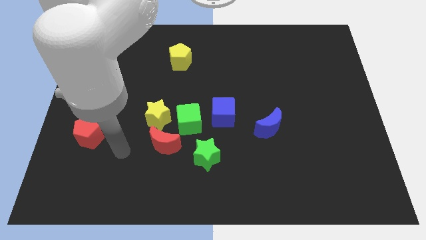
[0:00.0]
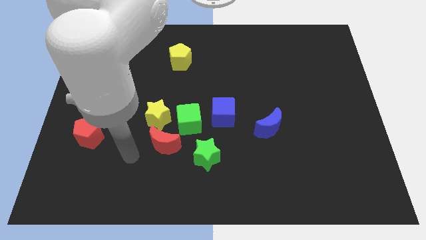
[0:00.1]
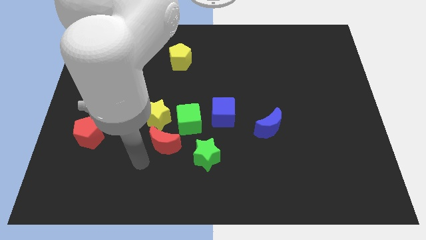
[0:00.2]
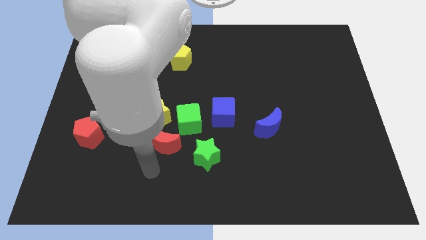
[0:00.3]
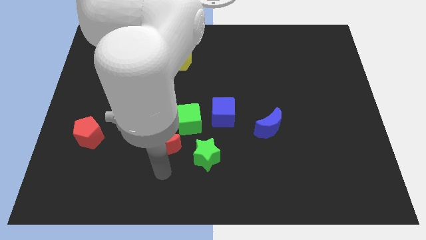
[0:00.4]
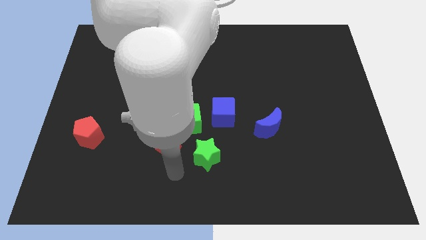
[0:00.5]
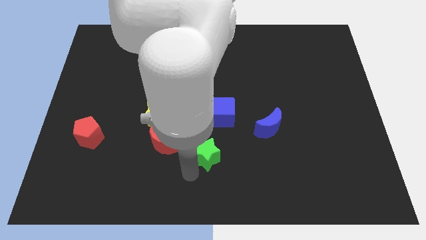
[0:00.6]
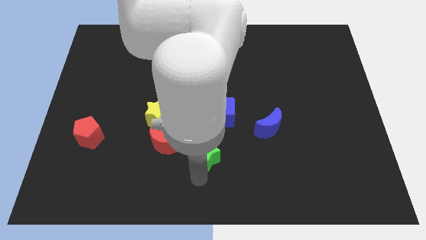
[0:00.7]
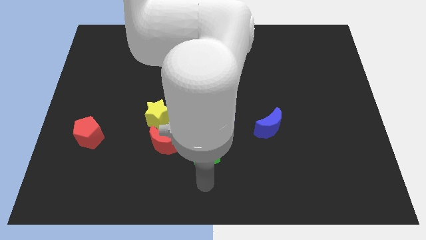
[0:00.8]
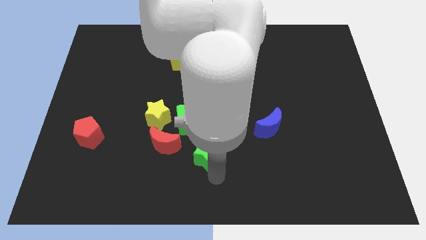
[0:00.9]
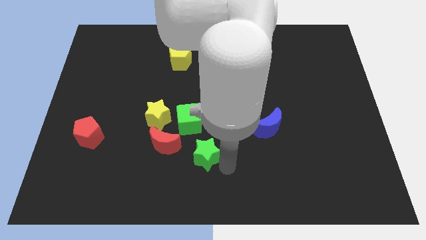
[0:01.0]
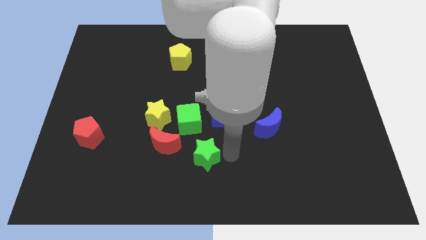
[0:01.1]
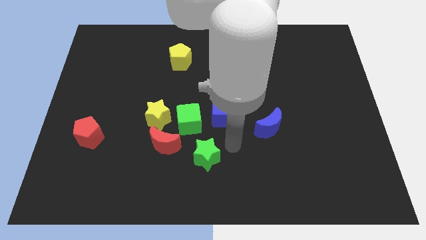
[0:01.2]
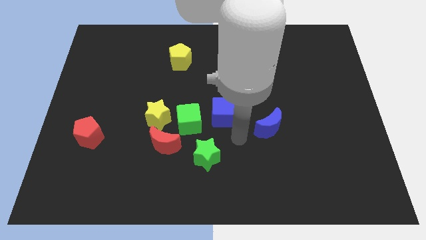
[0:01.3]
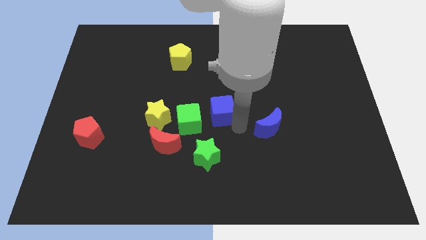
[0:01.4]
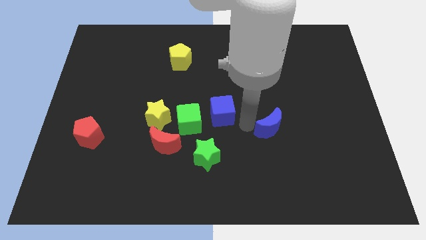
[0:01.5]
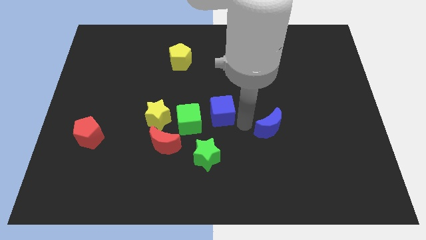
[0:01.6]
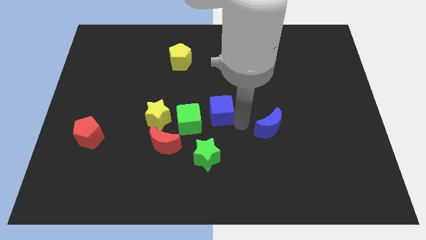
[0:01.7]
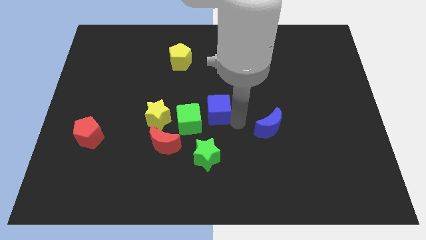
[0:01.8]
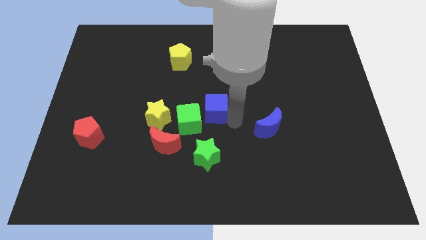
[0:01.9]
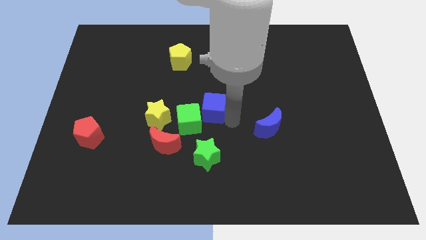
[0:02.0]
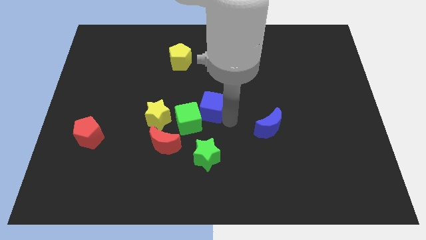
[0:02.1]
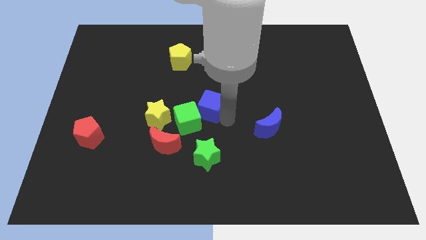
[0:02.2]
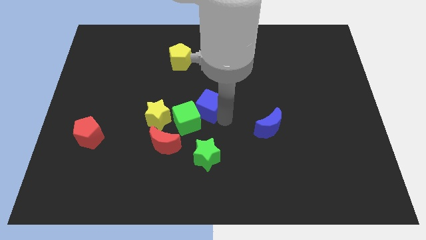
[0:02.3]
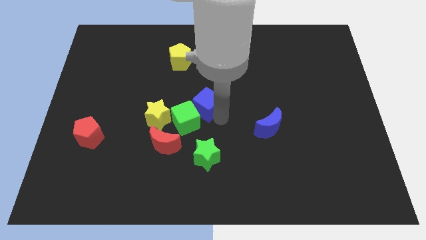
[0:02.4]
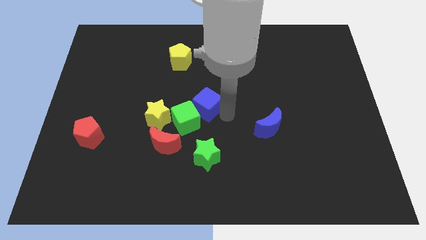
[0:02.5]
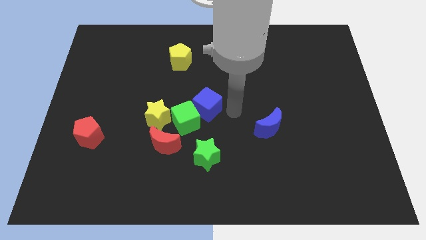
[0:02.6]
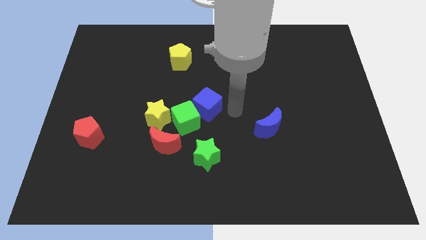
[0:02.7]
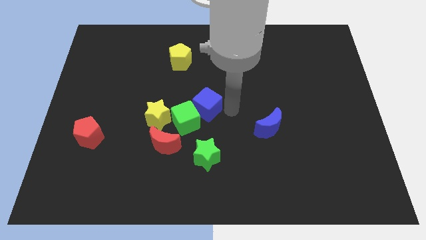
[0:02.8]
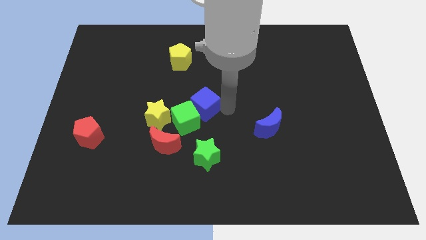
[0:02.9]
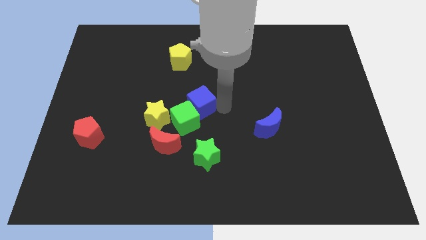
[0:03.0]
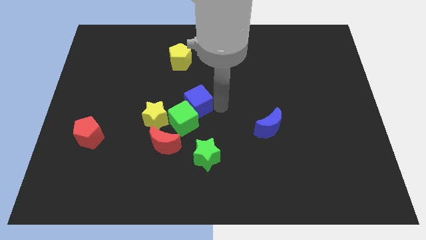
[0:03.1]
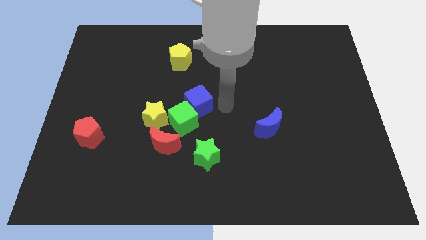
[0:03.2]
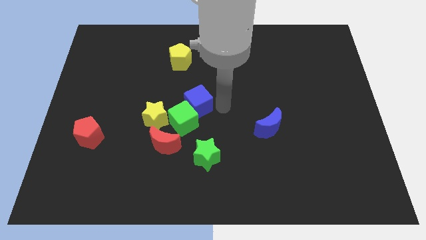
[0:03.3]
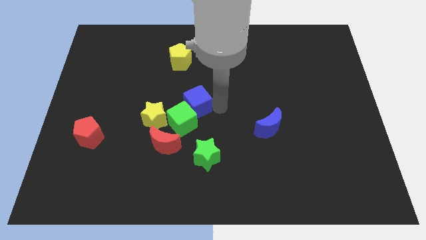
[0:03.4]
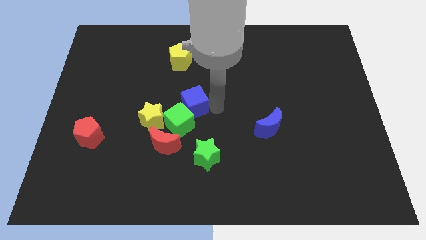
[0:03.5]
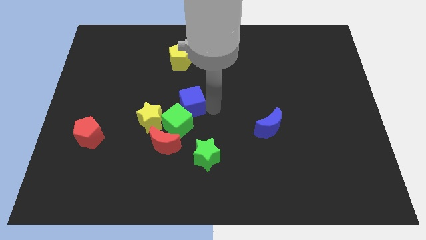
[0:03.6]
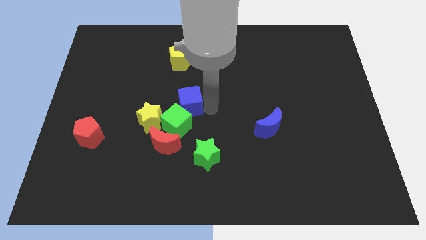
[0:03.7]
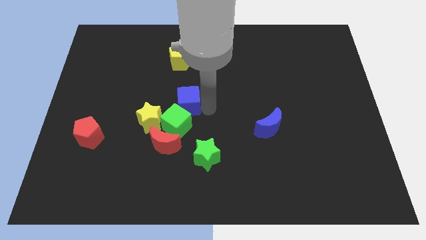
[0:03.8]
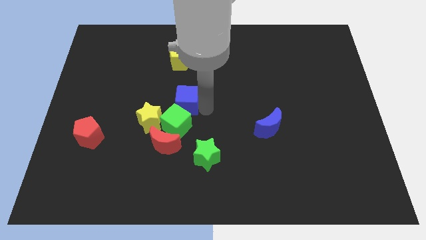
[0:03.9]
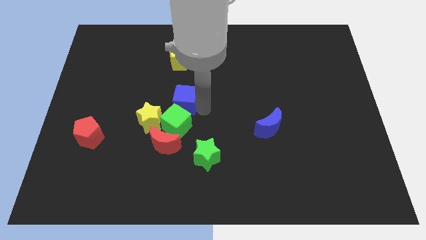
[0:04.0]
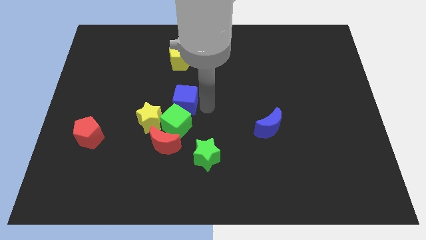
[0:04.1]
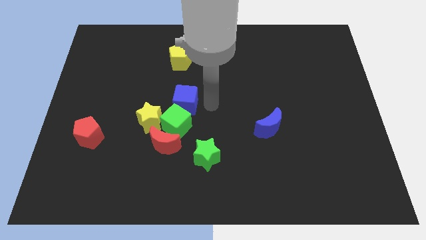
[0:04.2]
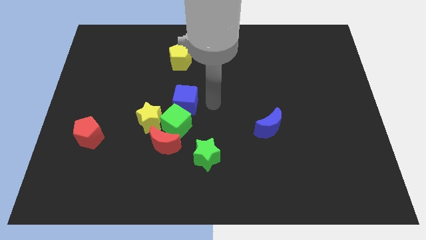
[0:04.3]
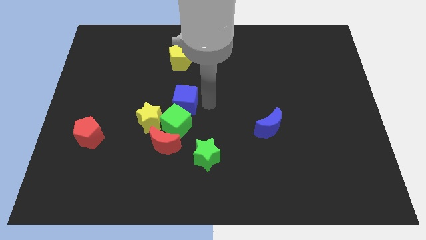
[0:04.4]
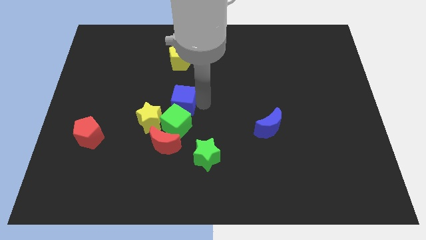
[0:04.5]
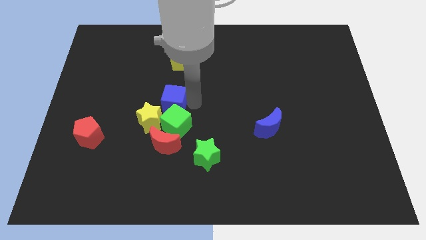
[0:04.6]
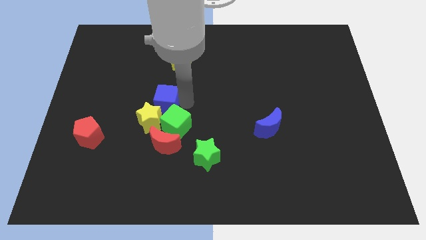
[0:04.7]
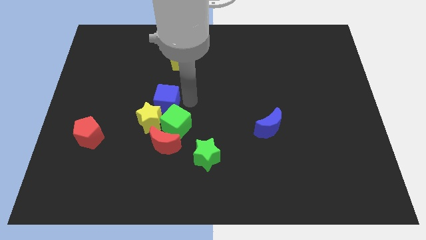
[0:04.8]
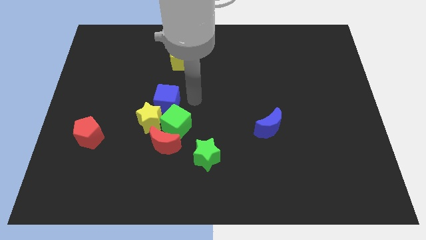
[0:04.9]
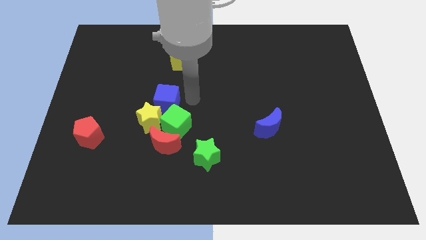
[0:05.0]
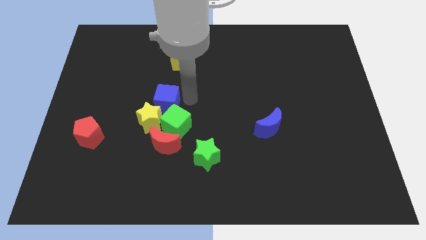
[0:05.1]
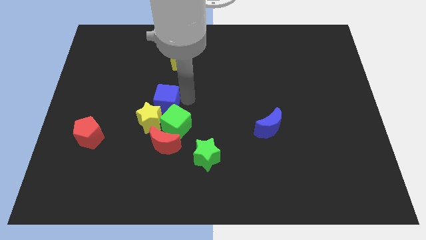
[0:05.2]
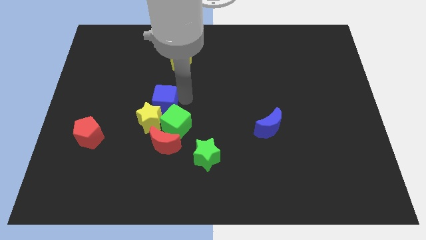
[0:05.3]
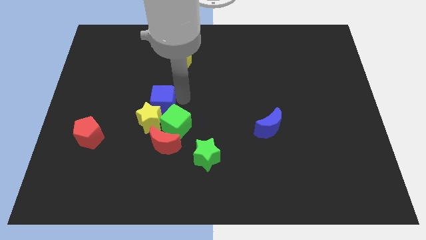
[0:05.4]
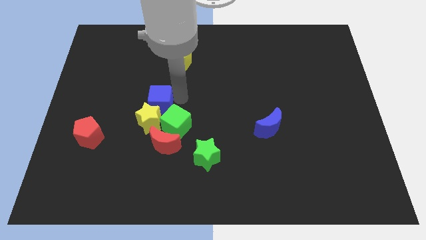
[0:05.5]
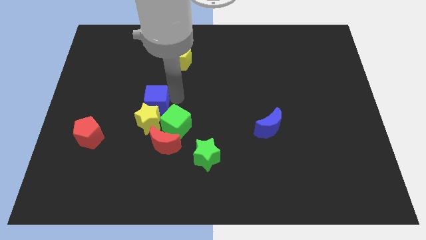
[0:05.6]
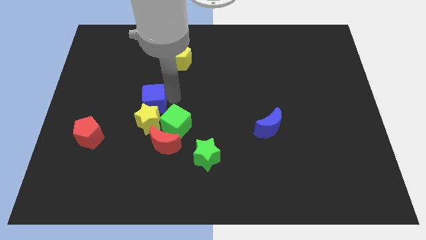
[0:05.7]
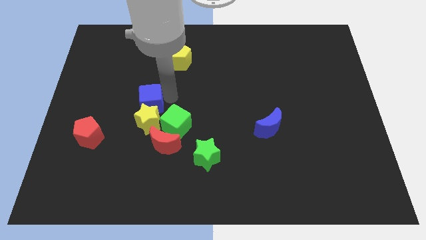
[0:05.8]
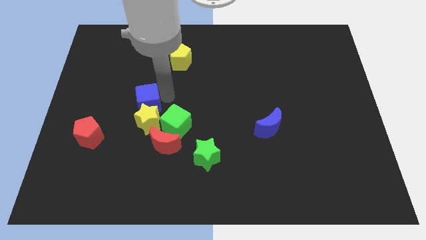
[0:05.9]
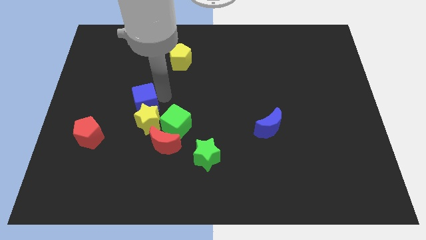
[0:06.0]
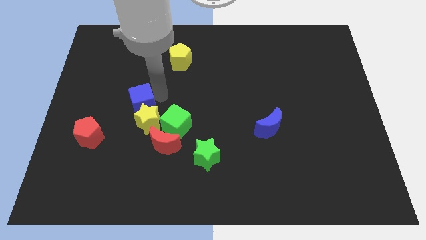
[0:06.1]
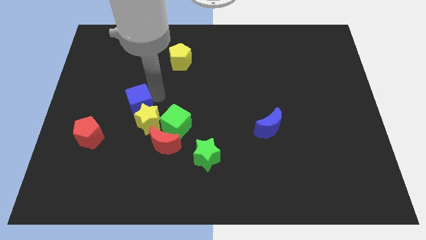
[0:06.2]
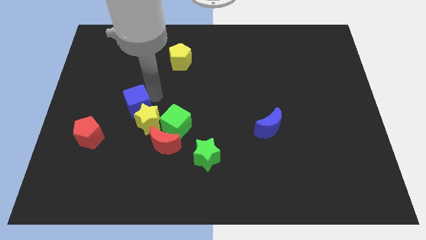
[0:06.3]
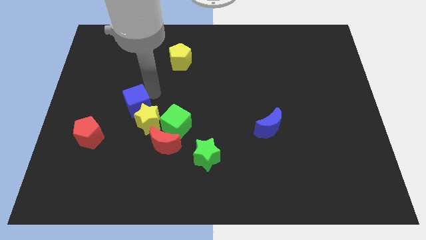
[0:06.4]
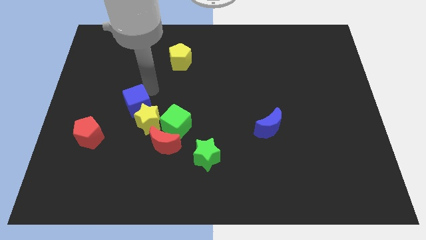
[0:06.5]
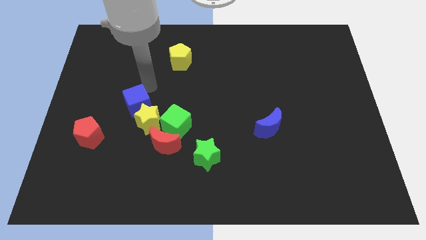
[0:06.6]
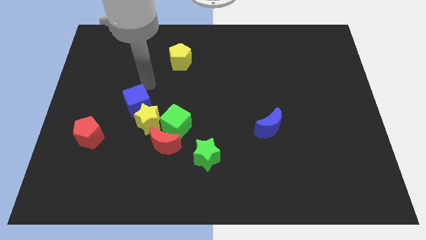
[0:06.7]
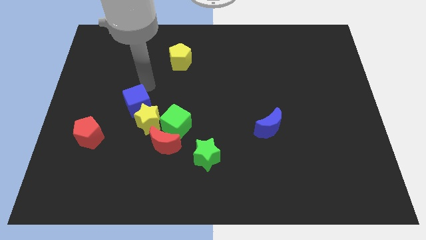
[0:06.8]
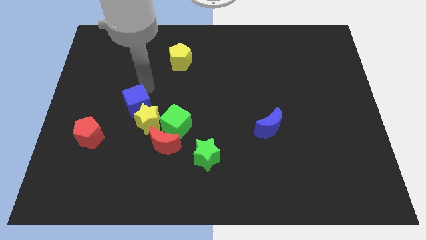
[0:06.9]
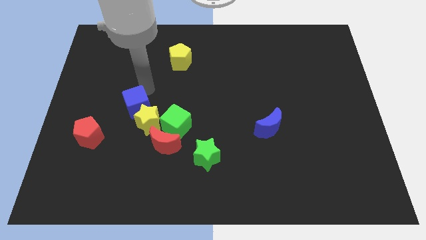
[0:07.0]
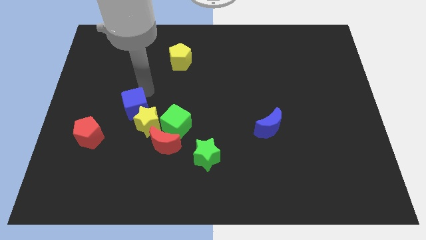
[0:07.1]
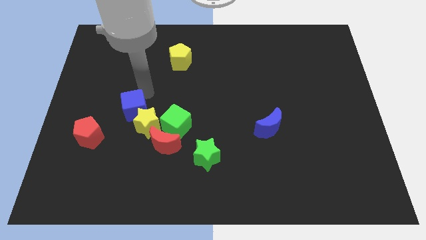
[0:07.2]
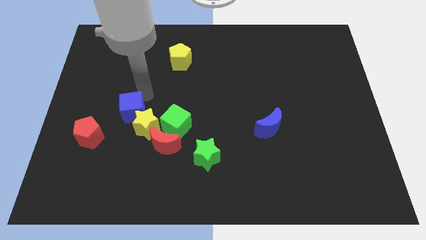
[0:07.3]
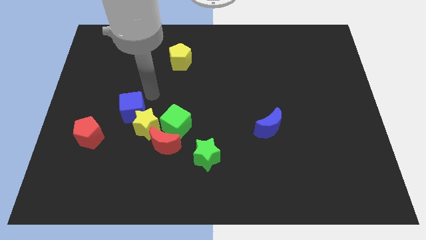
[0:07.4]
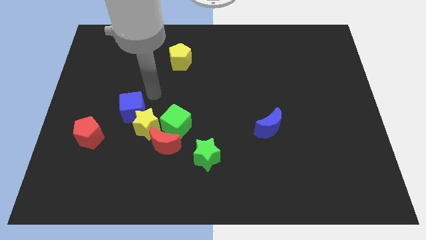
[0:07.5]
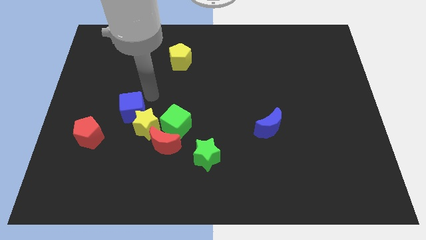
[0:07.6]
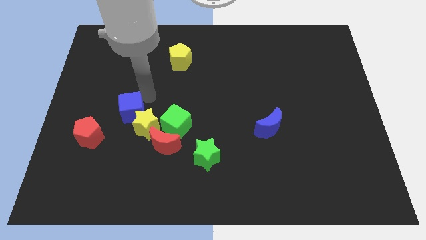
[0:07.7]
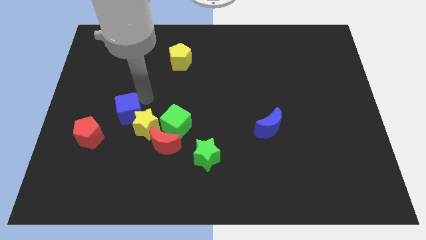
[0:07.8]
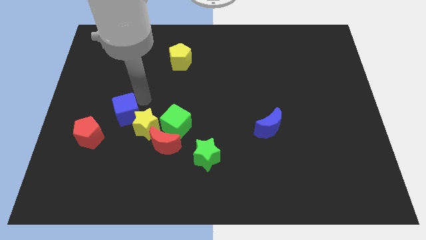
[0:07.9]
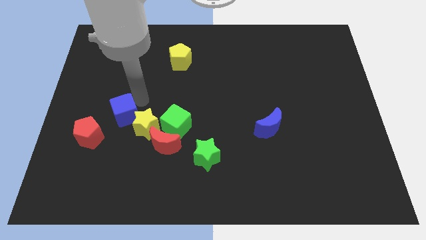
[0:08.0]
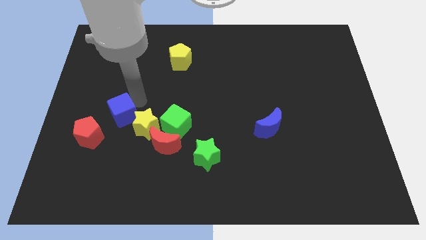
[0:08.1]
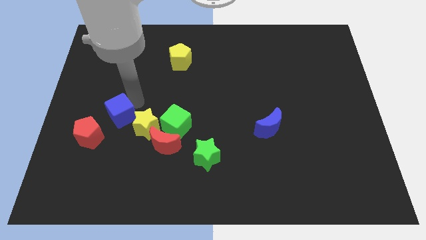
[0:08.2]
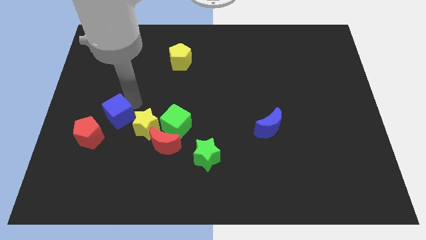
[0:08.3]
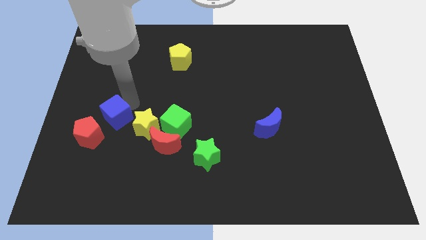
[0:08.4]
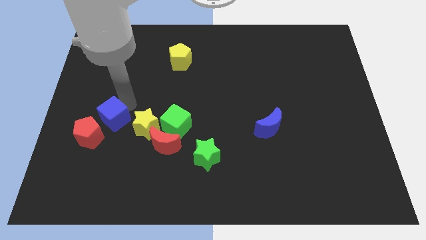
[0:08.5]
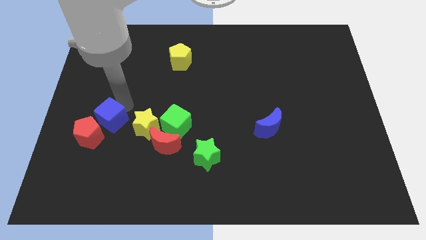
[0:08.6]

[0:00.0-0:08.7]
push the blue cube towards the red pentagon
